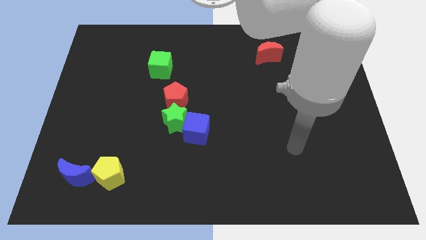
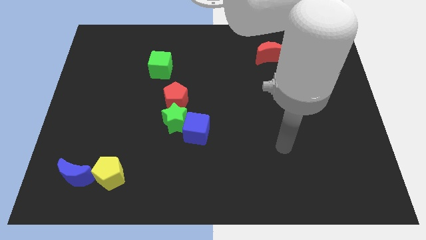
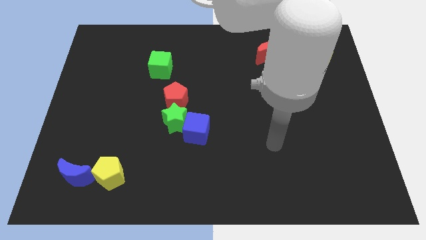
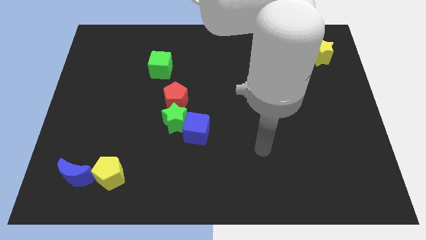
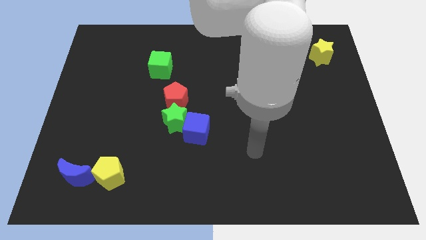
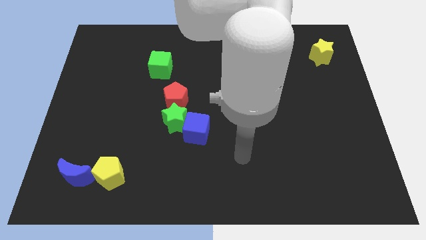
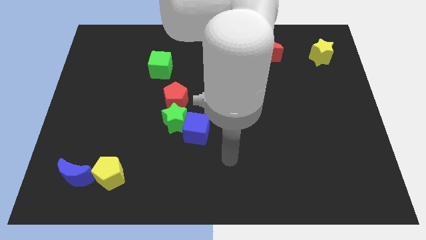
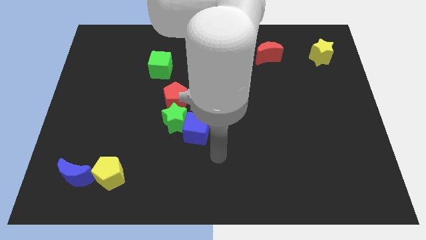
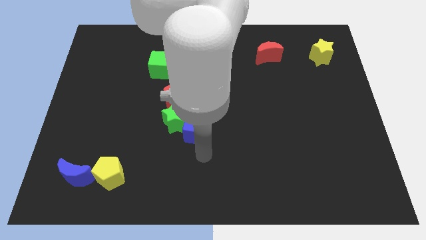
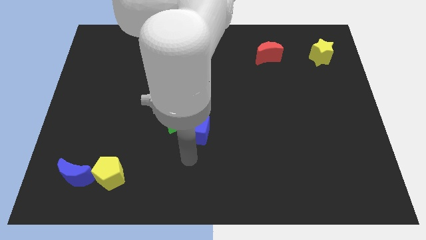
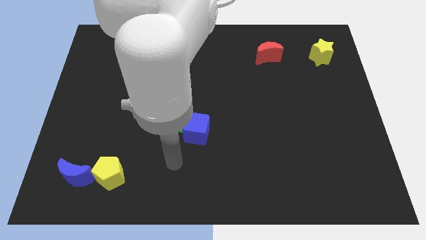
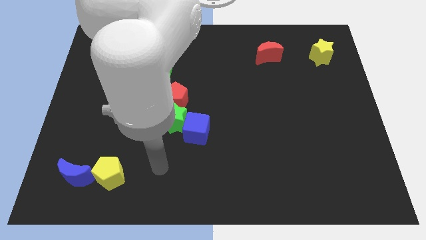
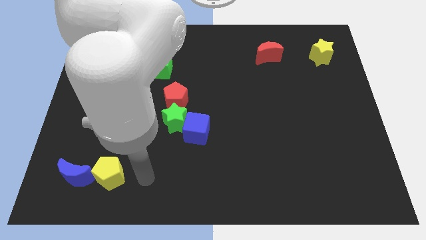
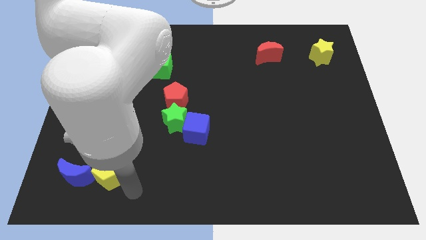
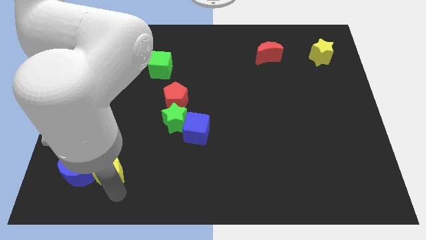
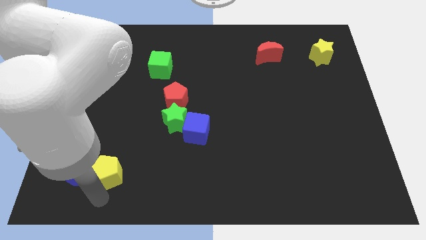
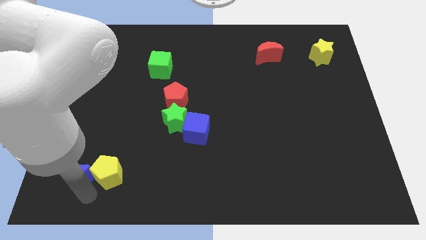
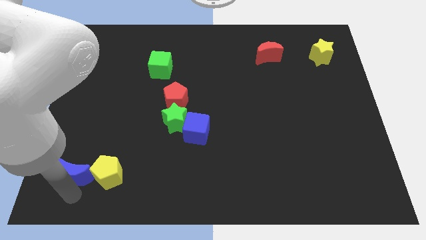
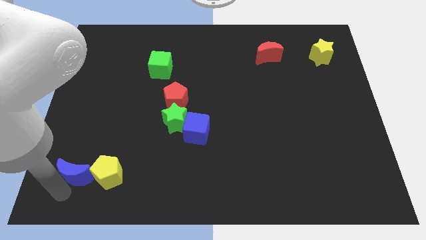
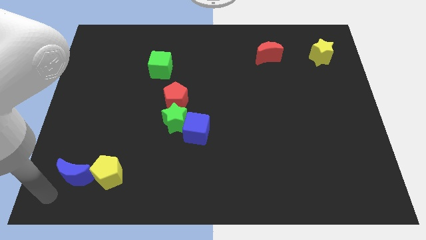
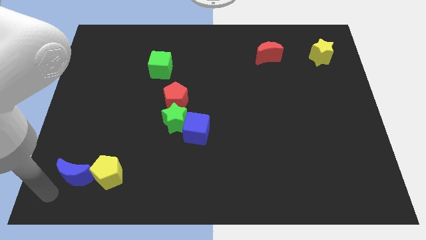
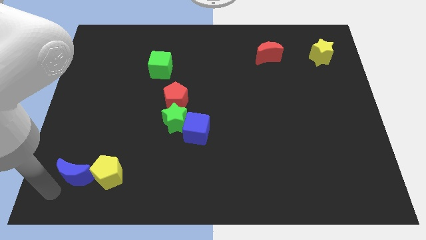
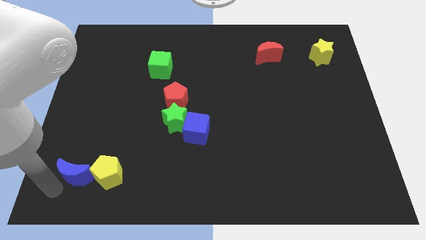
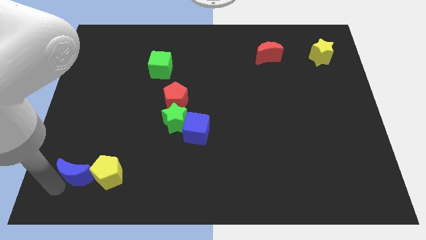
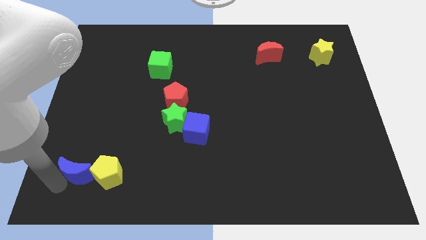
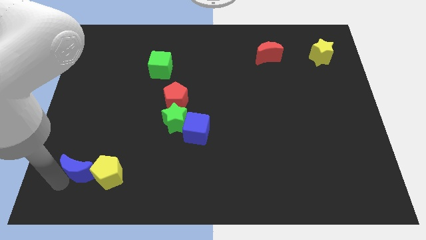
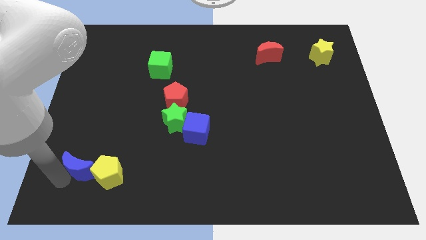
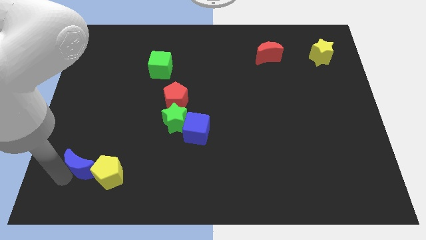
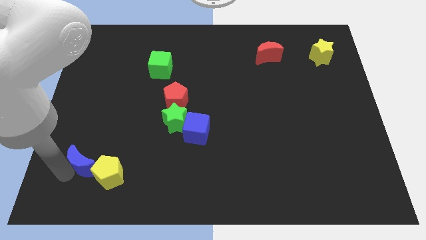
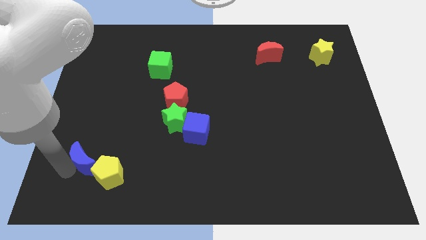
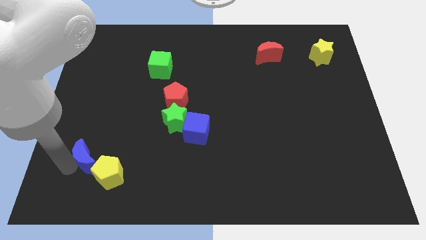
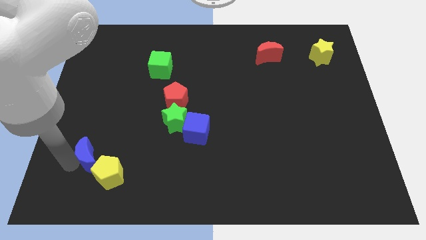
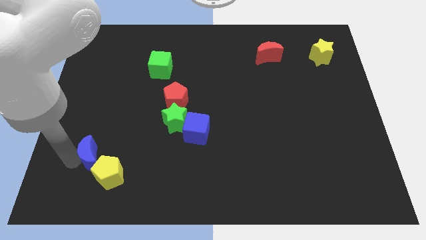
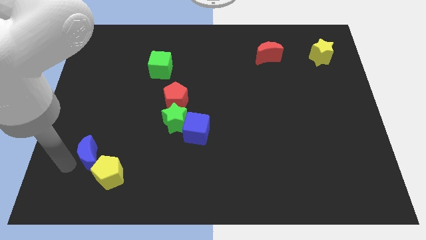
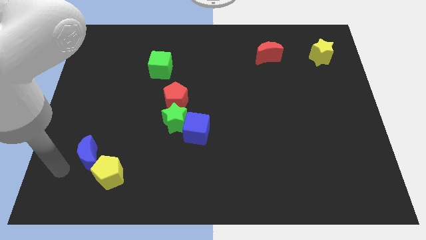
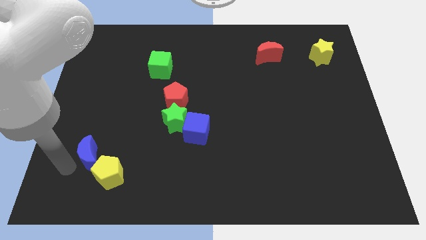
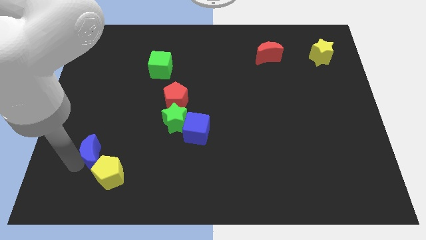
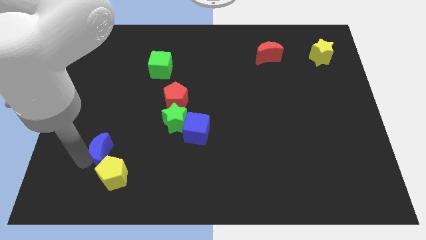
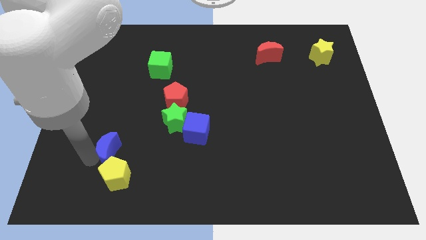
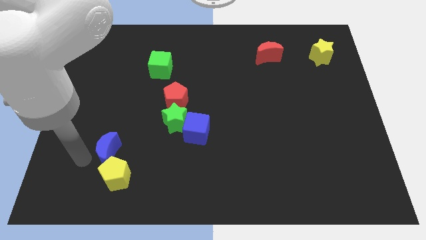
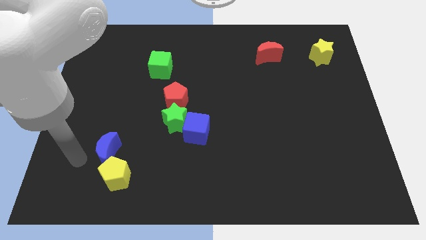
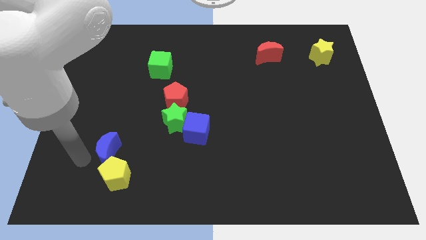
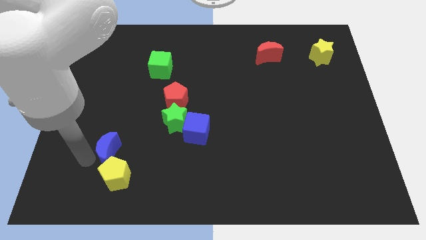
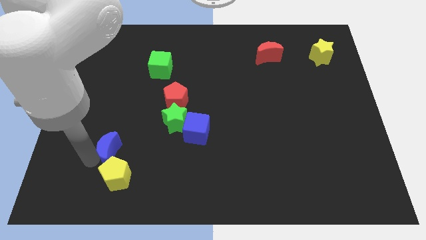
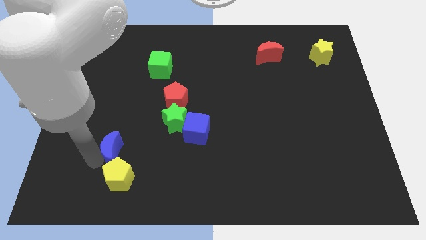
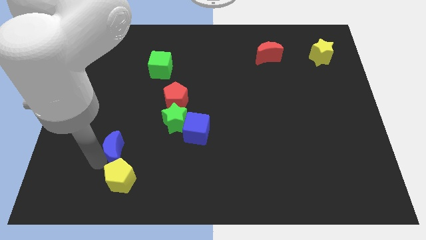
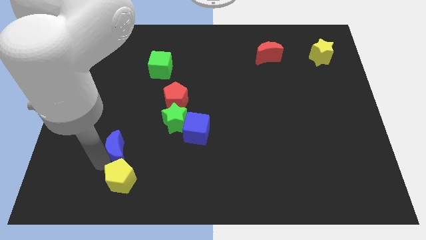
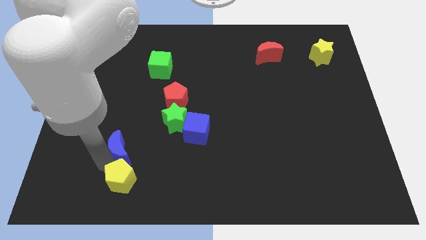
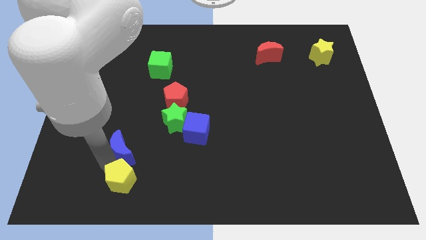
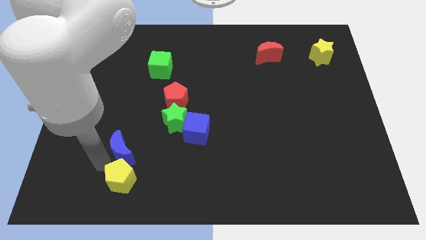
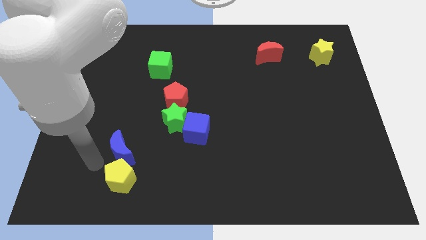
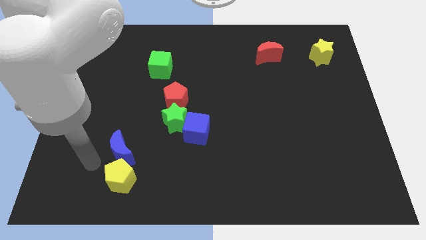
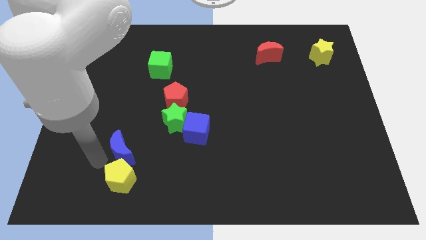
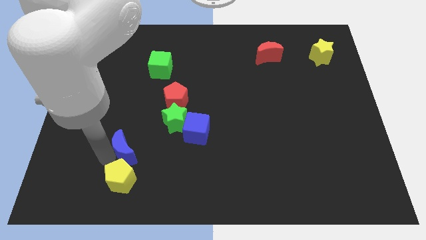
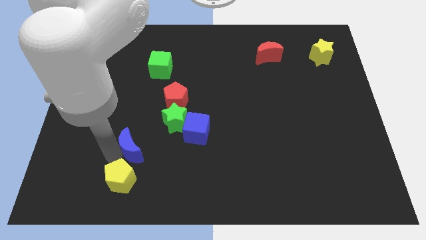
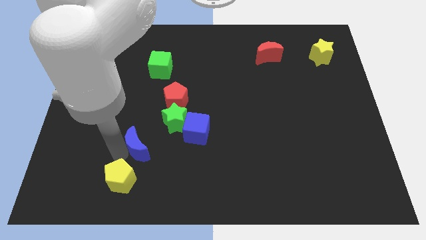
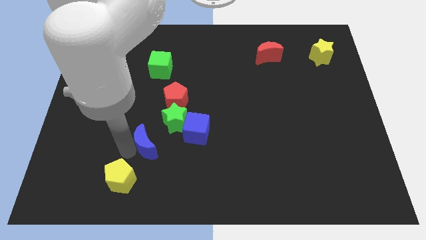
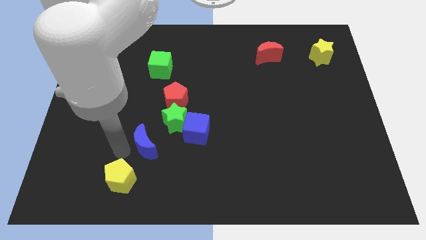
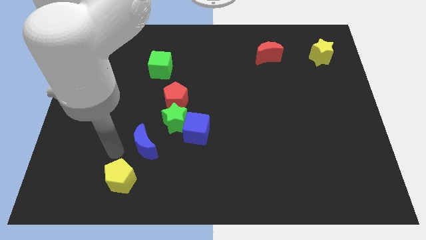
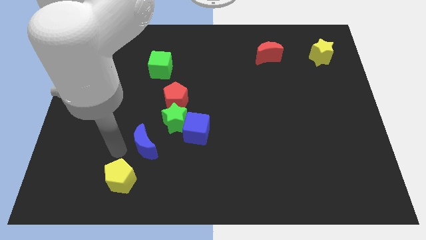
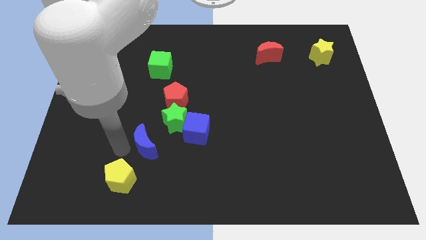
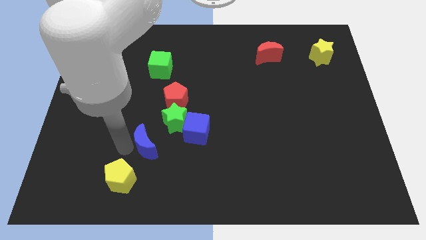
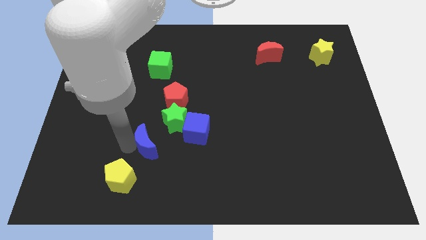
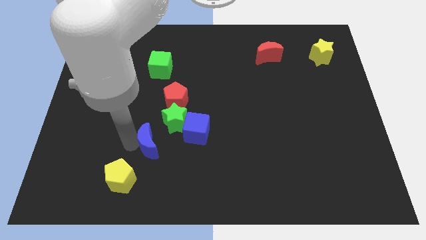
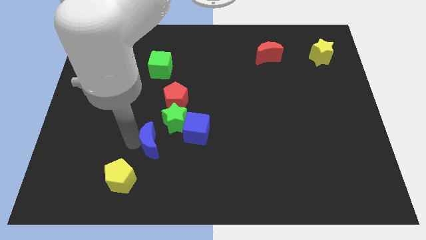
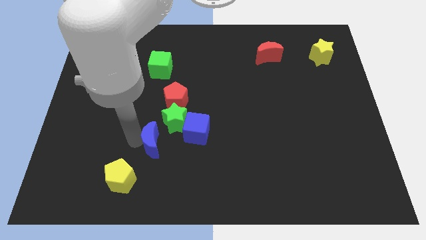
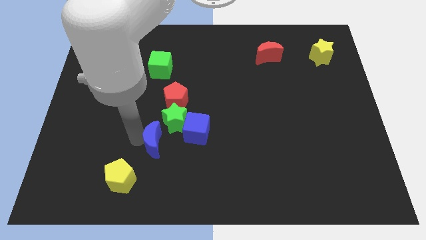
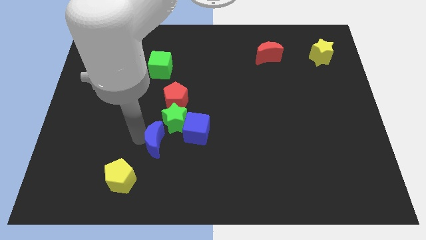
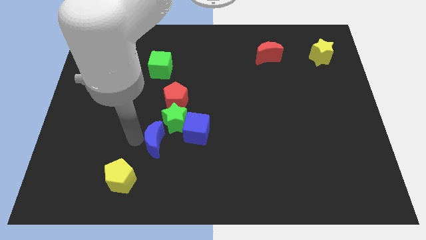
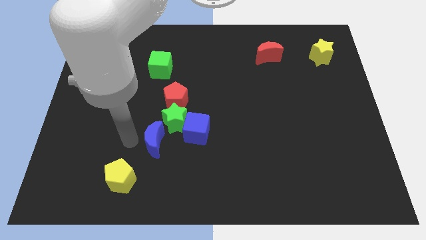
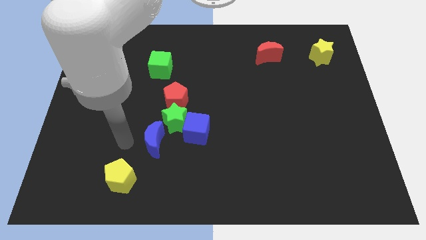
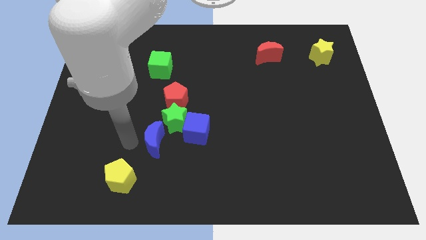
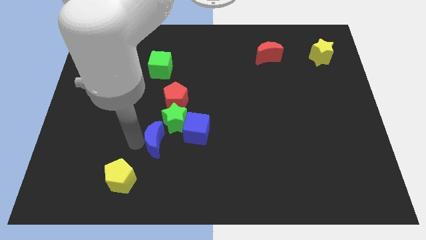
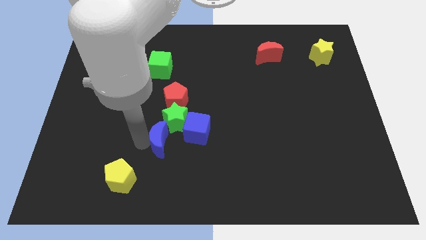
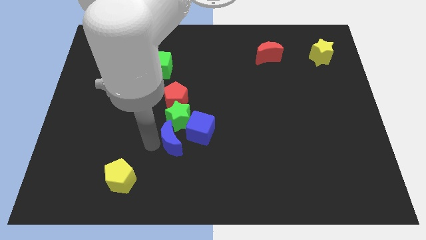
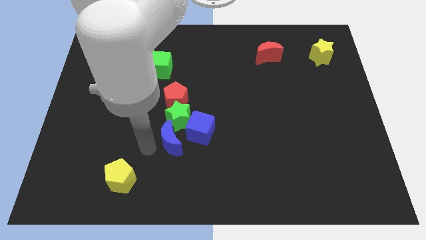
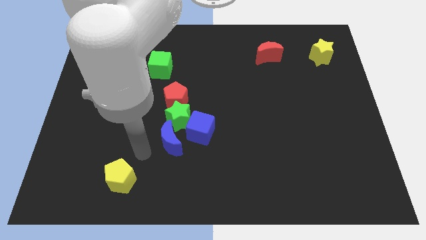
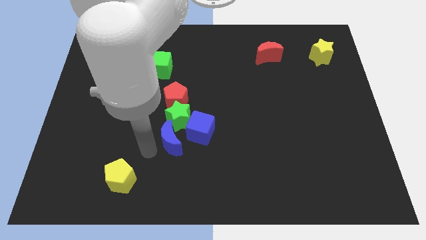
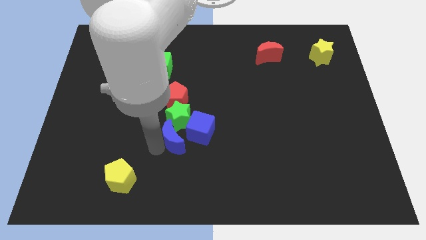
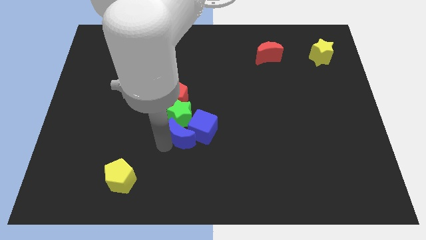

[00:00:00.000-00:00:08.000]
put the blue moon next to the blue cube

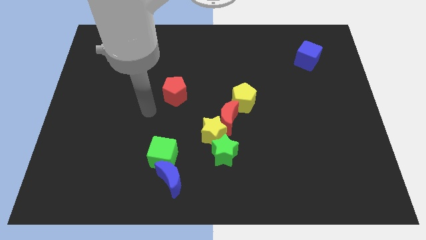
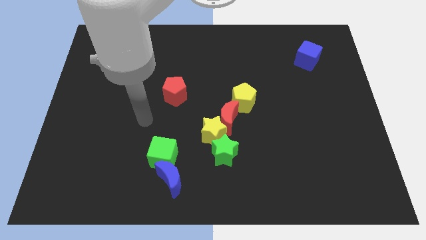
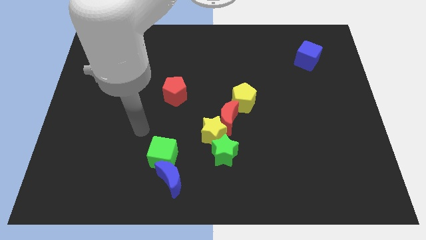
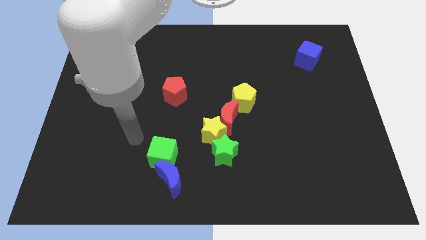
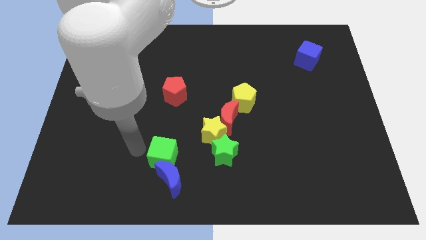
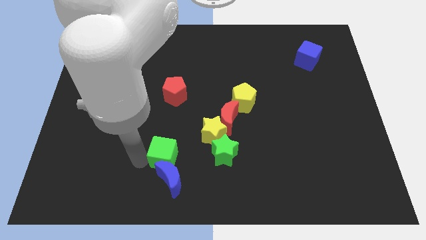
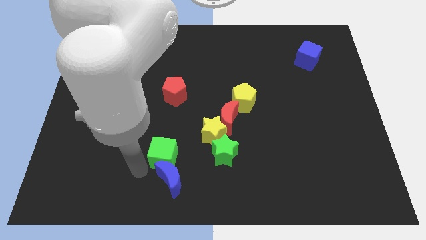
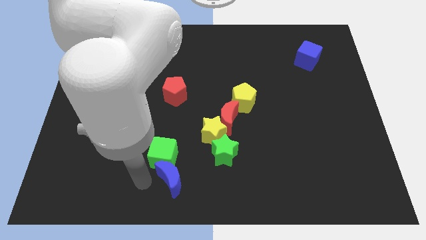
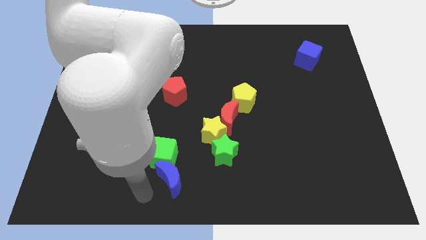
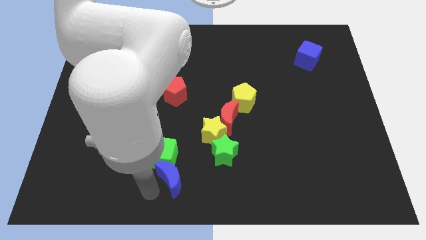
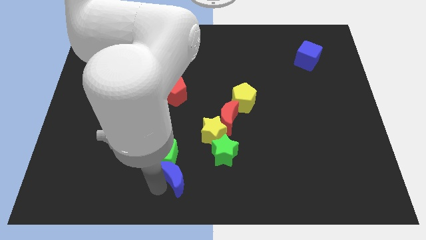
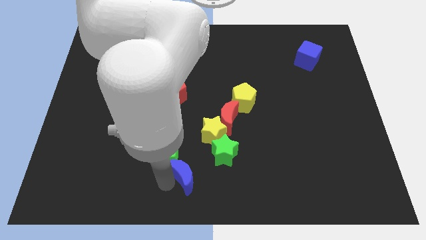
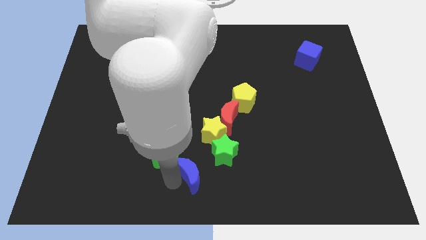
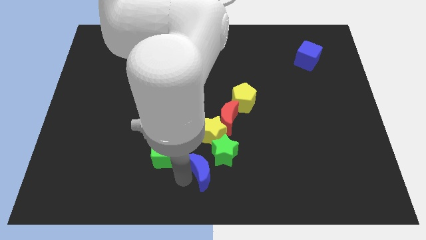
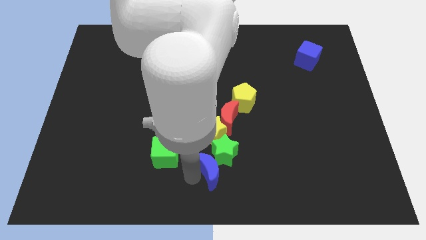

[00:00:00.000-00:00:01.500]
slide the blue moon next to the green star
